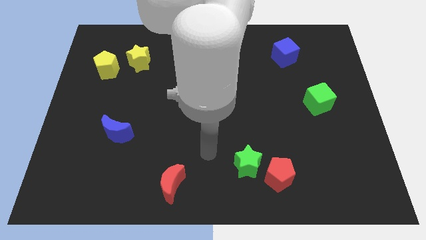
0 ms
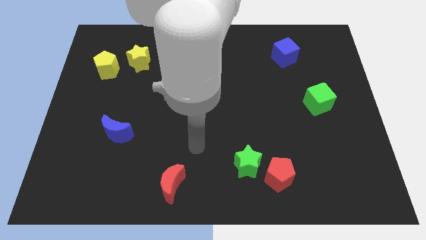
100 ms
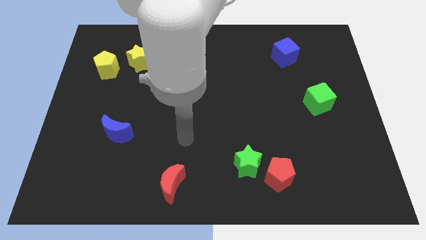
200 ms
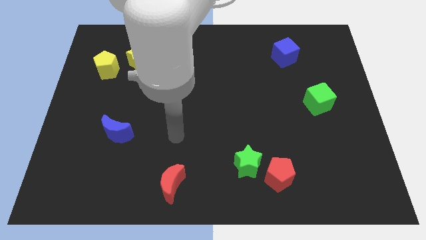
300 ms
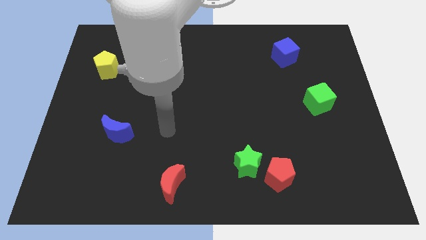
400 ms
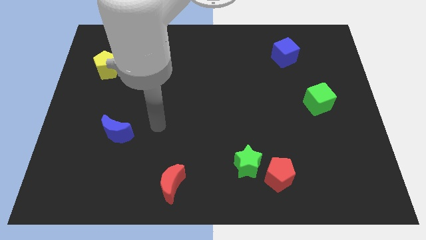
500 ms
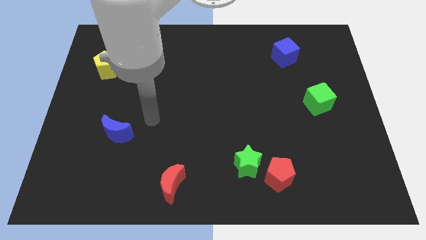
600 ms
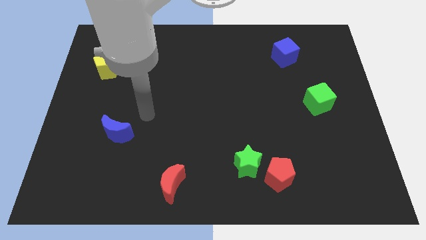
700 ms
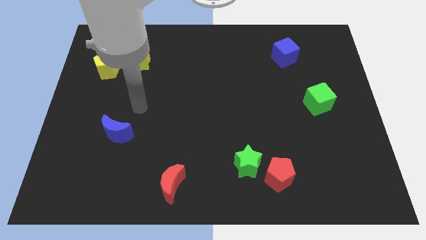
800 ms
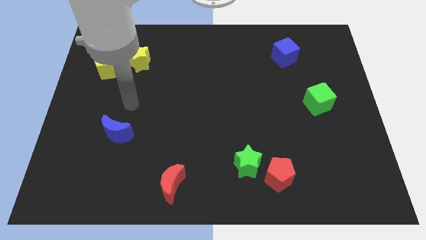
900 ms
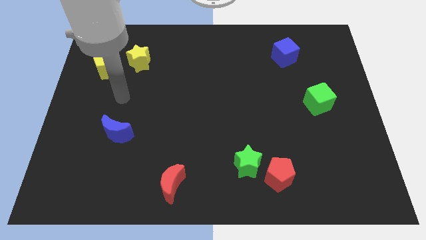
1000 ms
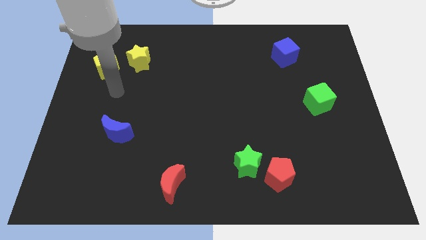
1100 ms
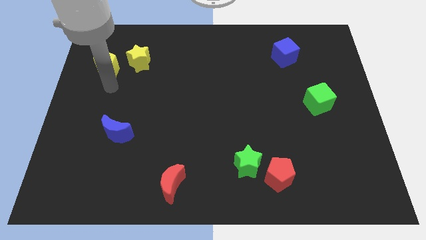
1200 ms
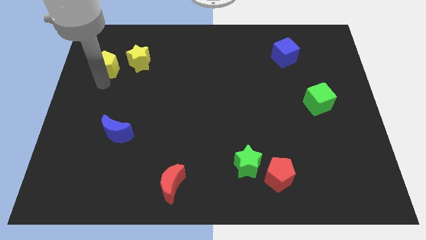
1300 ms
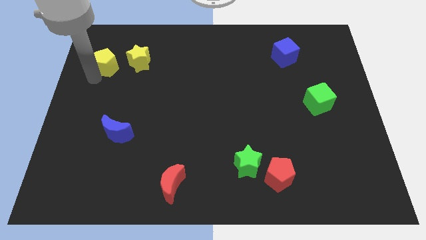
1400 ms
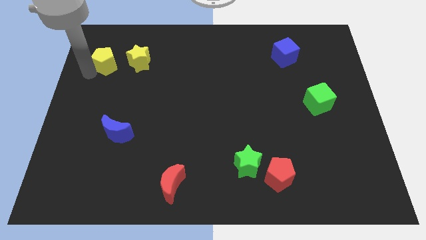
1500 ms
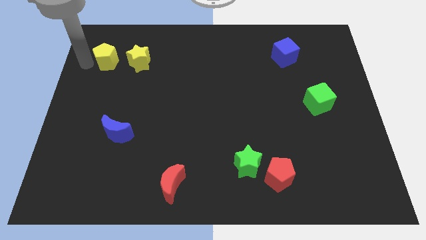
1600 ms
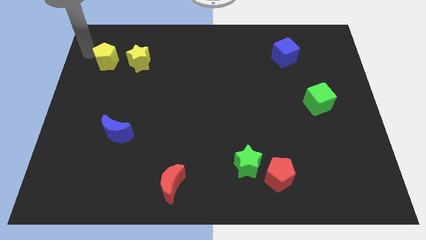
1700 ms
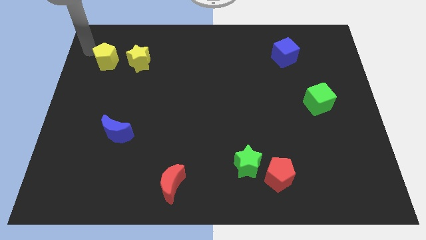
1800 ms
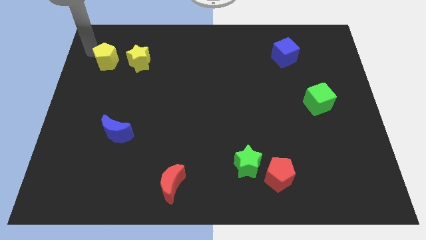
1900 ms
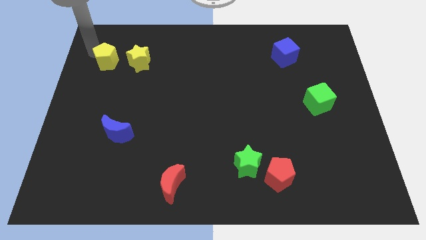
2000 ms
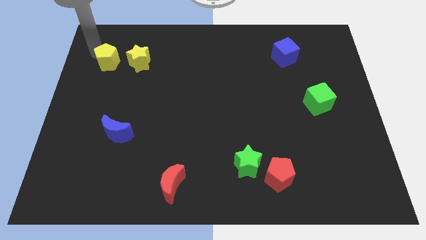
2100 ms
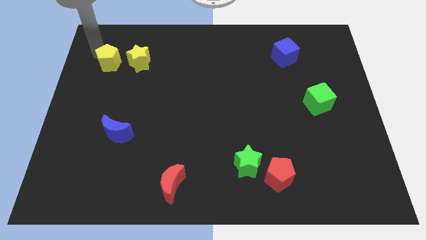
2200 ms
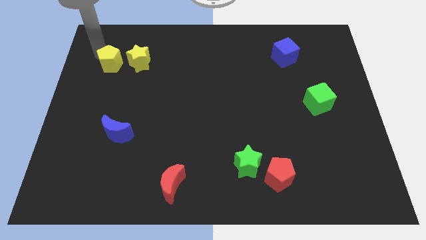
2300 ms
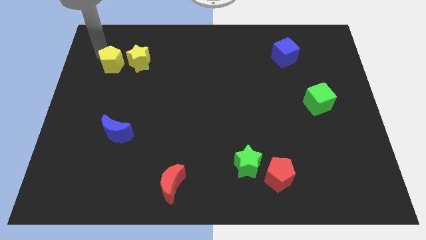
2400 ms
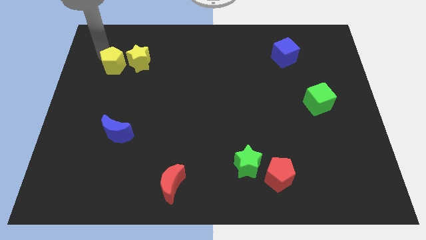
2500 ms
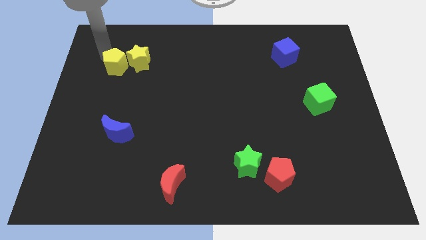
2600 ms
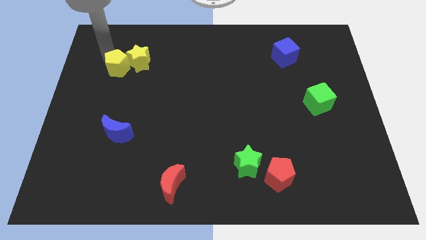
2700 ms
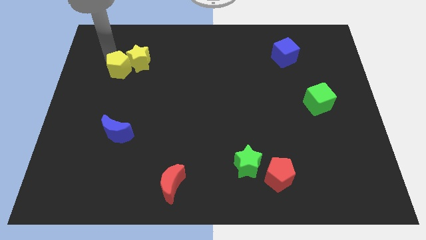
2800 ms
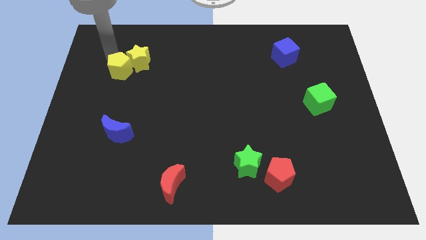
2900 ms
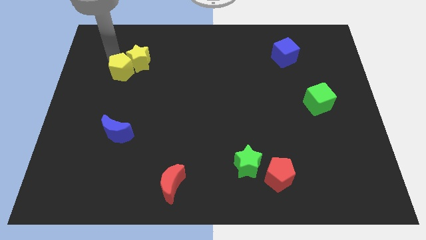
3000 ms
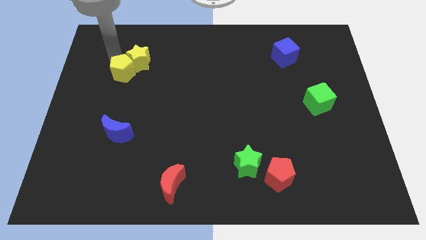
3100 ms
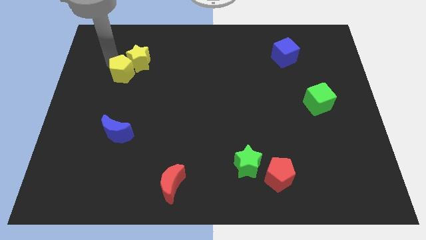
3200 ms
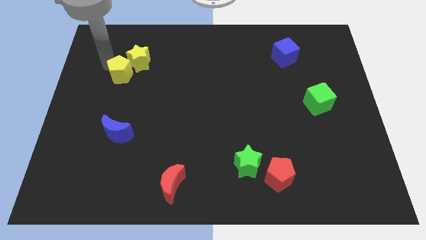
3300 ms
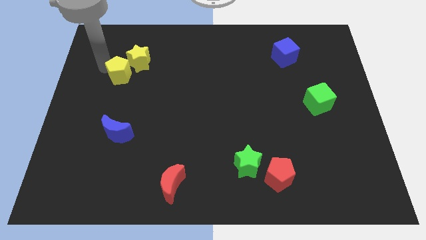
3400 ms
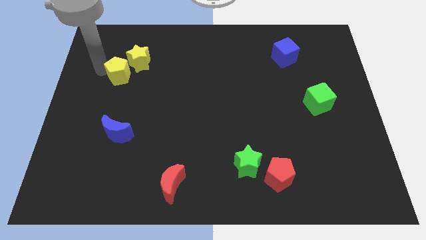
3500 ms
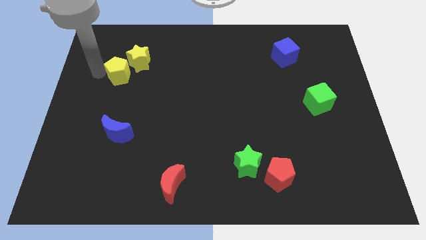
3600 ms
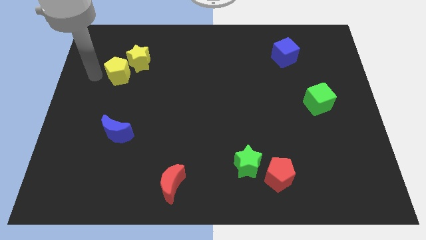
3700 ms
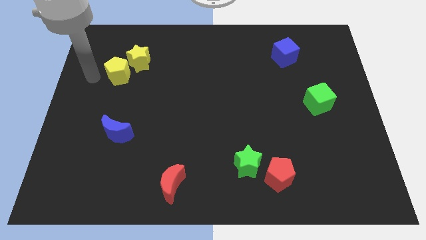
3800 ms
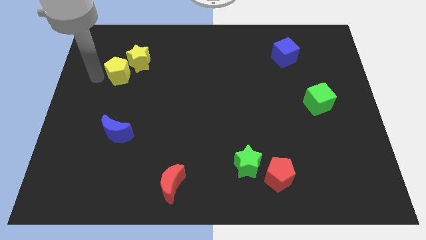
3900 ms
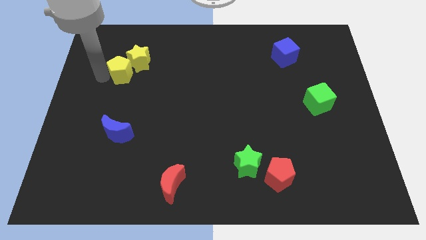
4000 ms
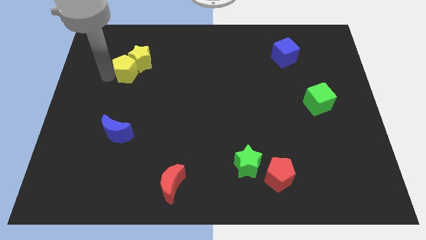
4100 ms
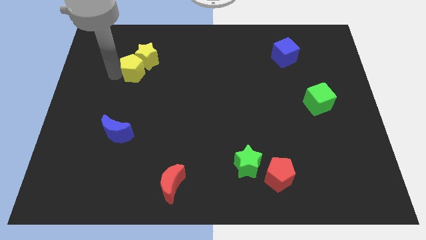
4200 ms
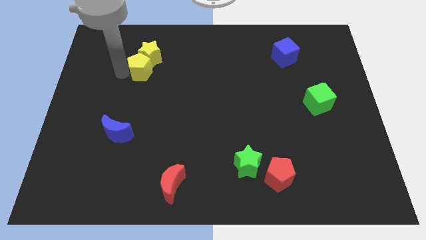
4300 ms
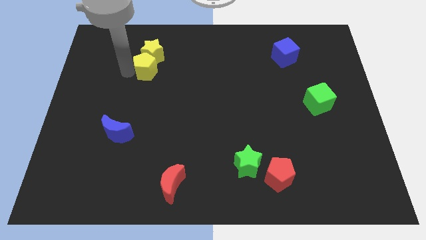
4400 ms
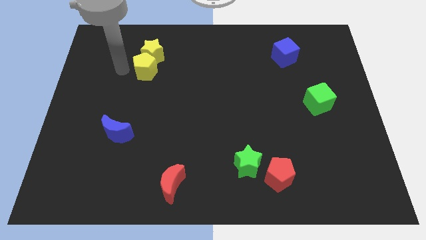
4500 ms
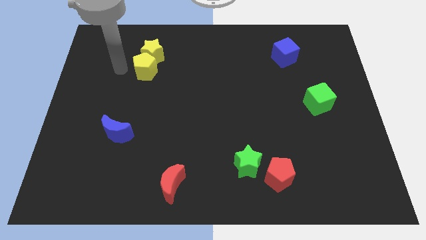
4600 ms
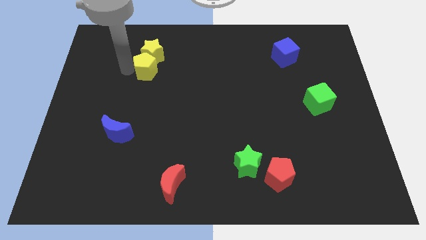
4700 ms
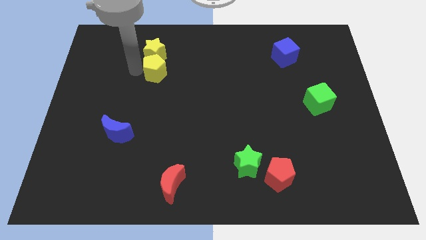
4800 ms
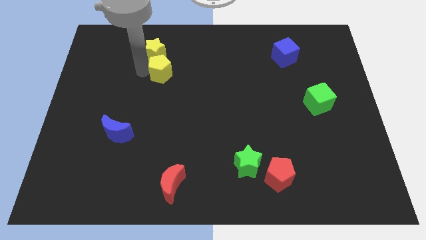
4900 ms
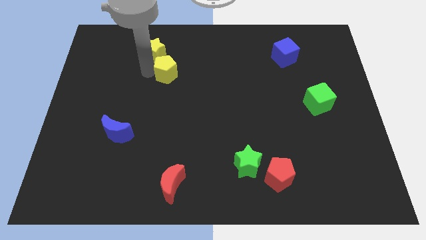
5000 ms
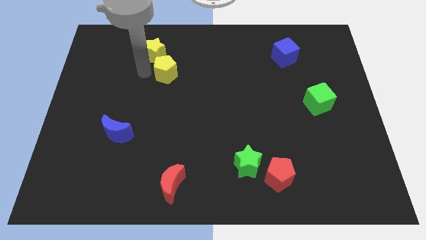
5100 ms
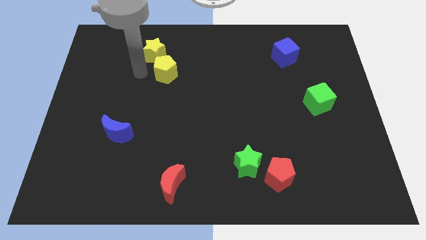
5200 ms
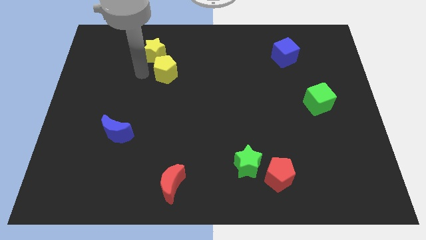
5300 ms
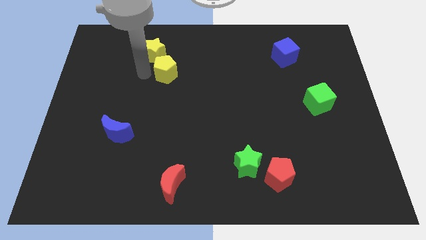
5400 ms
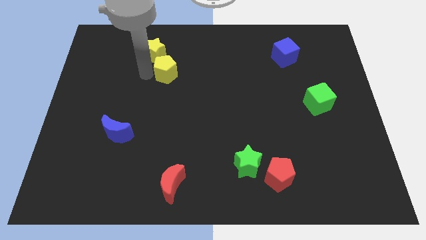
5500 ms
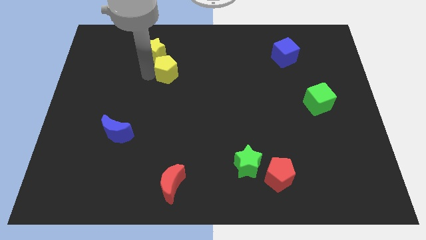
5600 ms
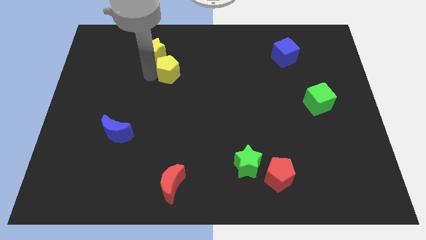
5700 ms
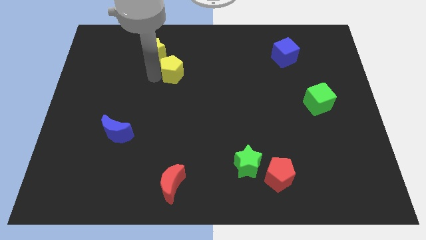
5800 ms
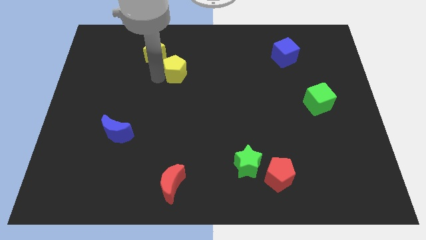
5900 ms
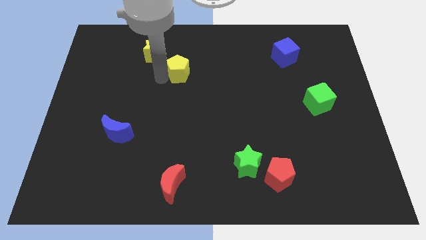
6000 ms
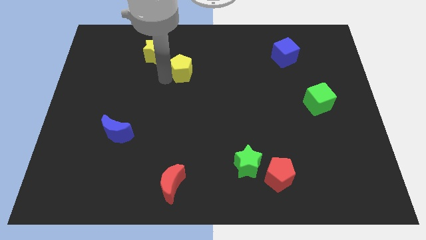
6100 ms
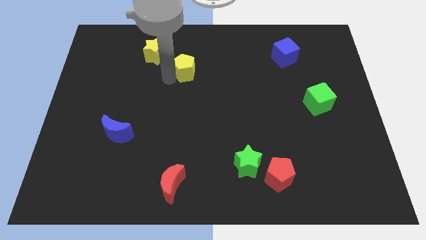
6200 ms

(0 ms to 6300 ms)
move the yellow pentagon right

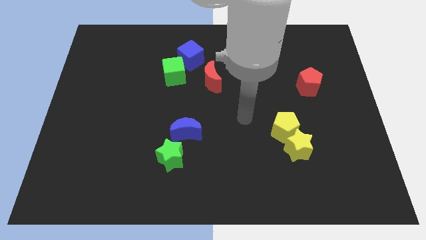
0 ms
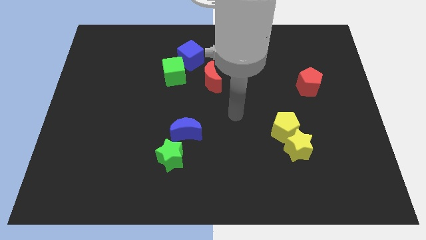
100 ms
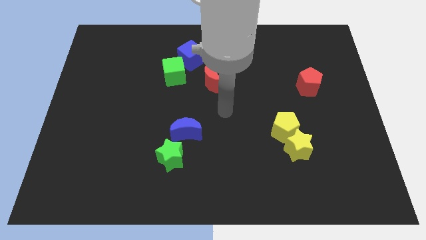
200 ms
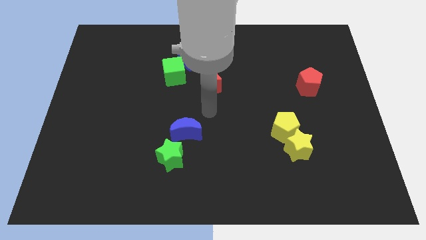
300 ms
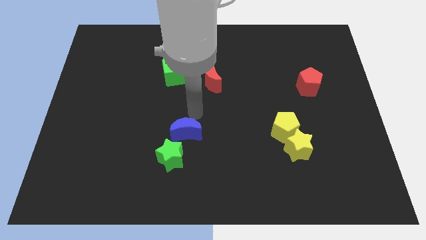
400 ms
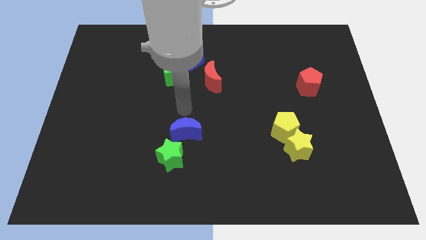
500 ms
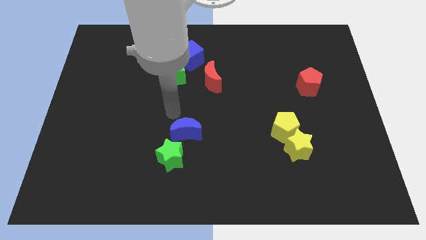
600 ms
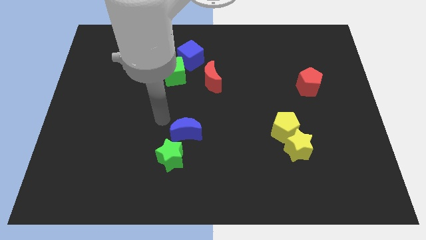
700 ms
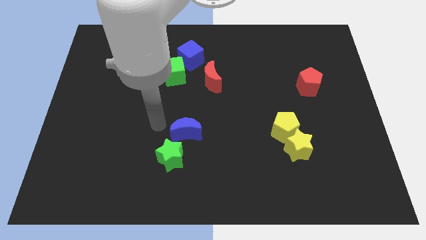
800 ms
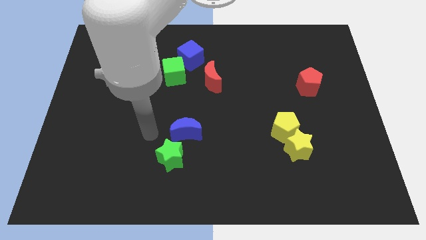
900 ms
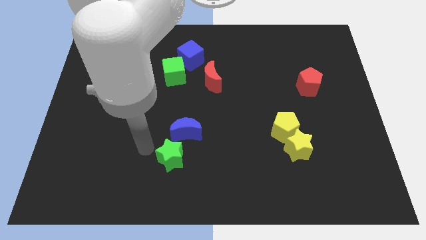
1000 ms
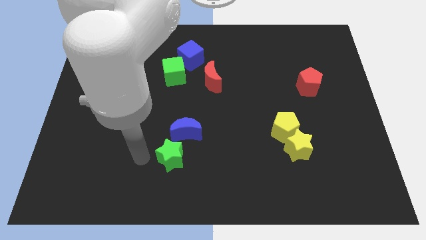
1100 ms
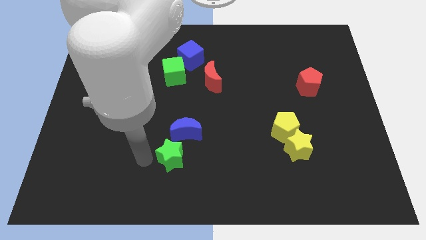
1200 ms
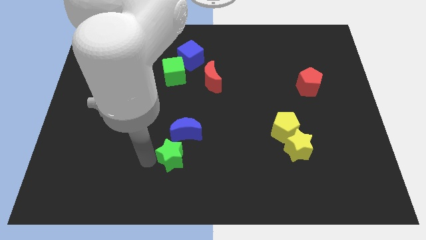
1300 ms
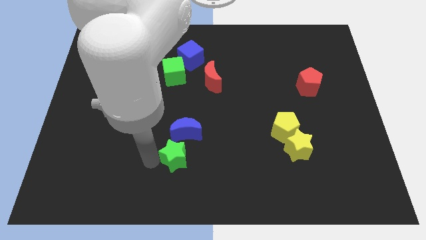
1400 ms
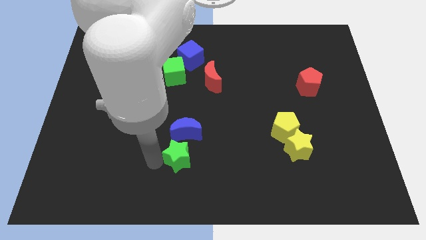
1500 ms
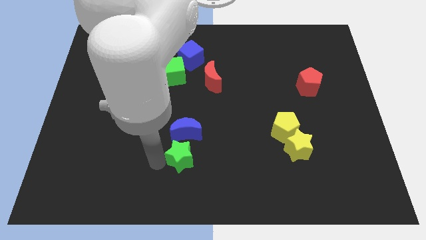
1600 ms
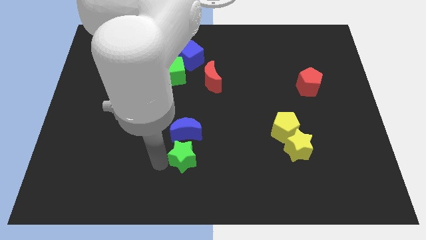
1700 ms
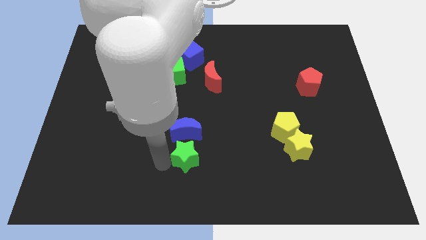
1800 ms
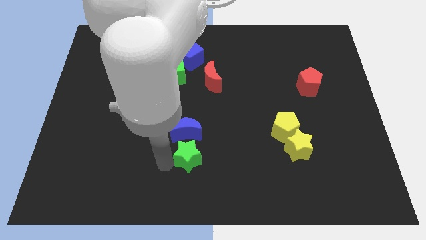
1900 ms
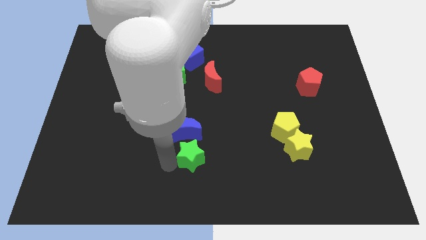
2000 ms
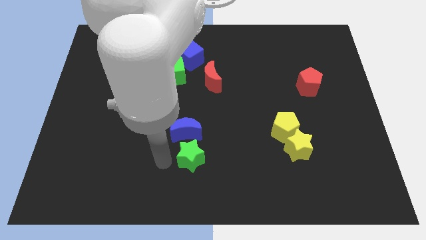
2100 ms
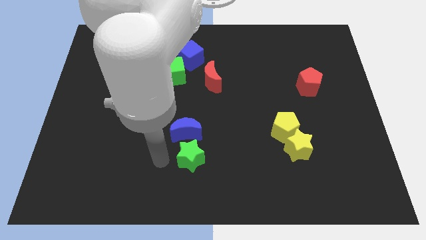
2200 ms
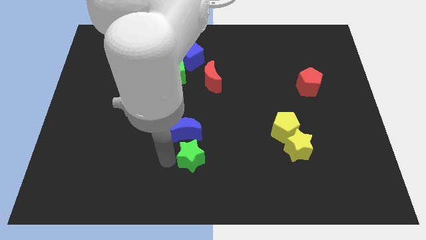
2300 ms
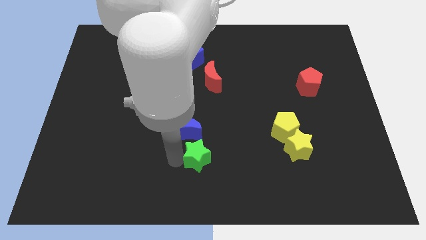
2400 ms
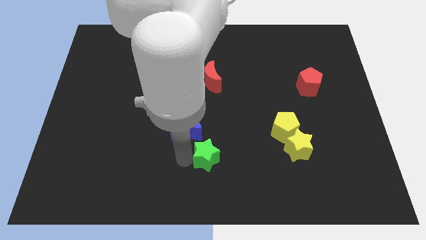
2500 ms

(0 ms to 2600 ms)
move the green star a little right
